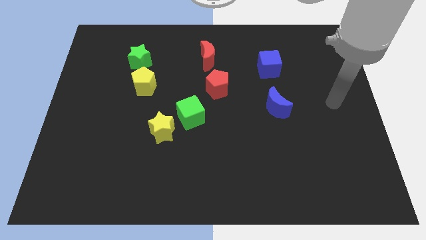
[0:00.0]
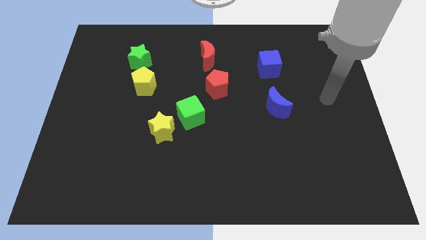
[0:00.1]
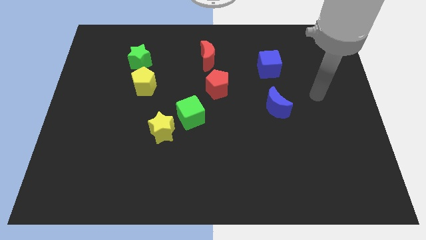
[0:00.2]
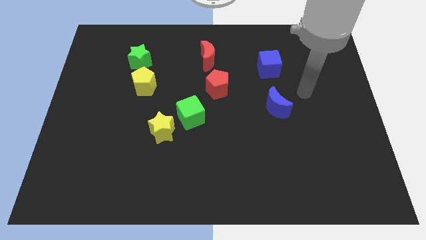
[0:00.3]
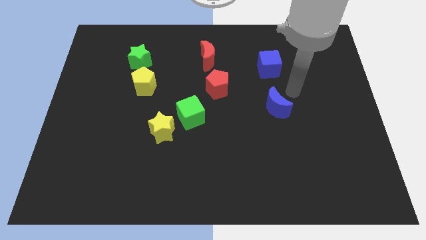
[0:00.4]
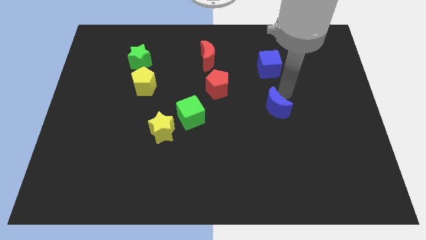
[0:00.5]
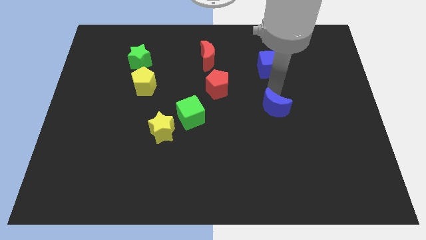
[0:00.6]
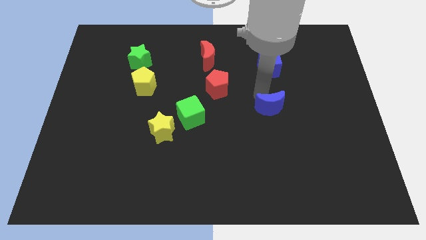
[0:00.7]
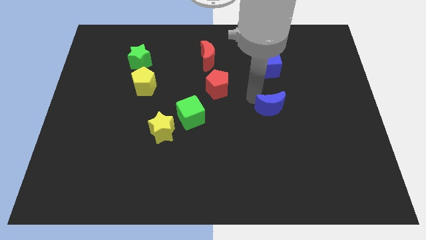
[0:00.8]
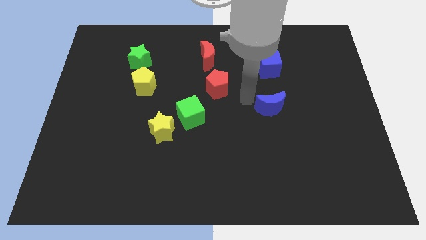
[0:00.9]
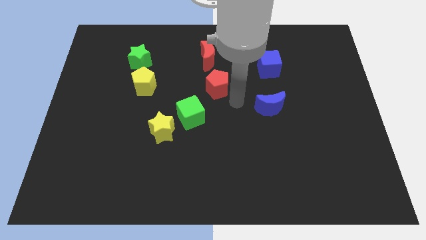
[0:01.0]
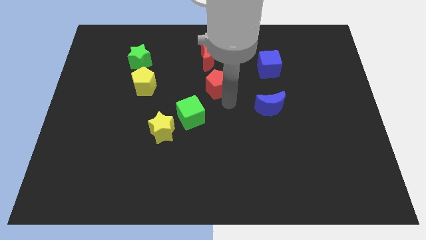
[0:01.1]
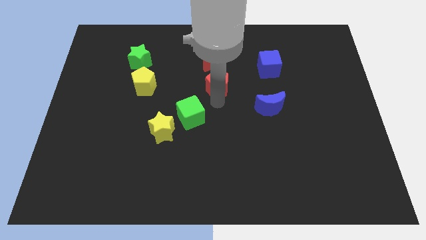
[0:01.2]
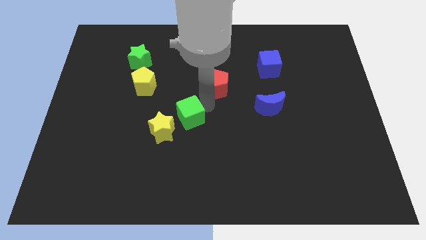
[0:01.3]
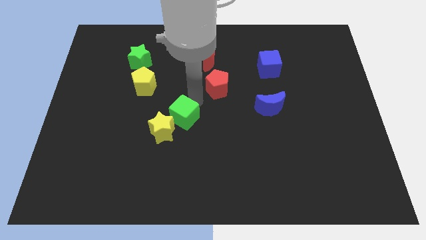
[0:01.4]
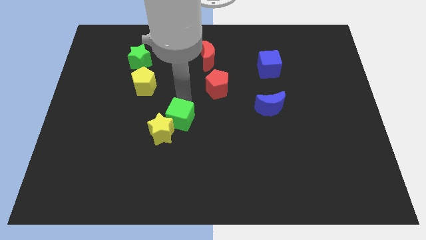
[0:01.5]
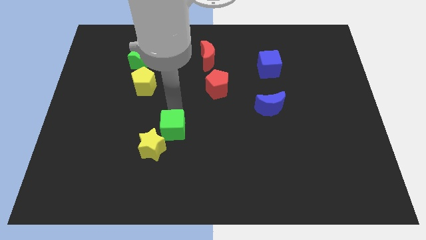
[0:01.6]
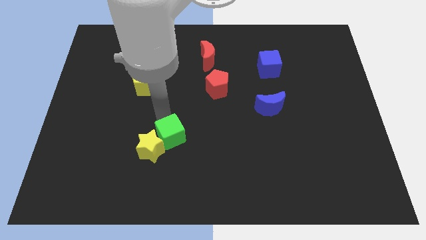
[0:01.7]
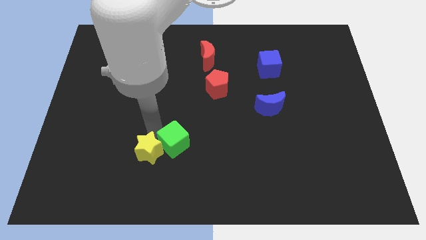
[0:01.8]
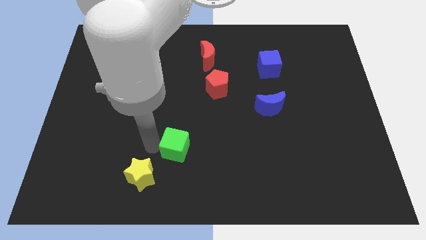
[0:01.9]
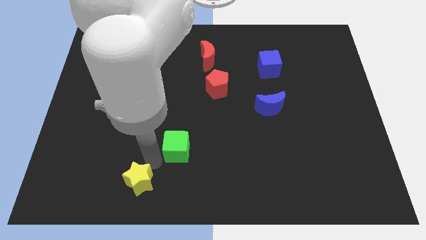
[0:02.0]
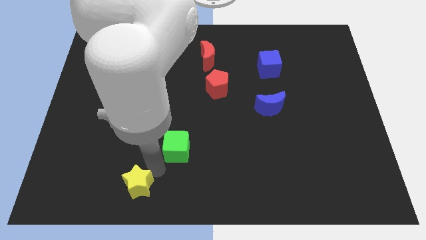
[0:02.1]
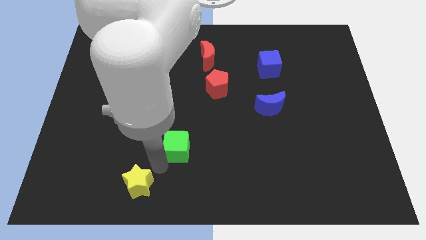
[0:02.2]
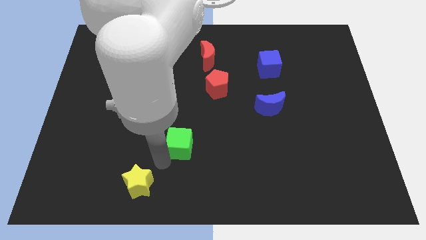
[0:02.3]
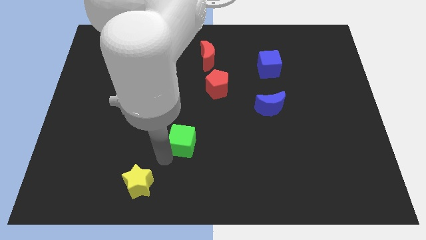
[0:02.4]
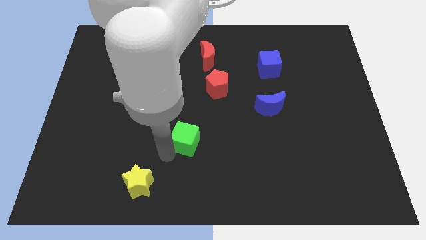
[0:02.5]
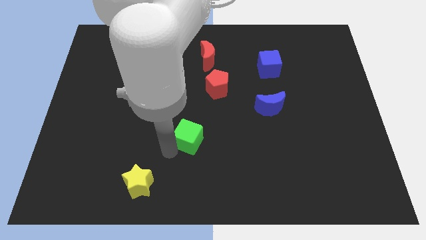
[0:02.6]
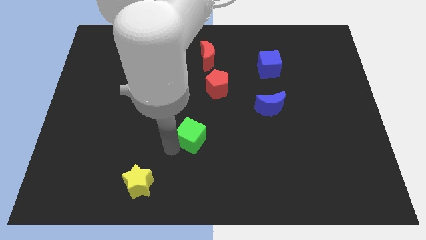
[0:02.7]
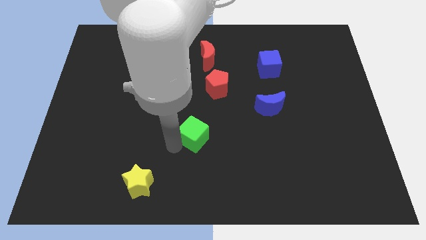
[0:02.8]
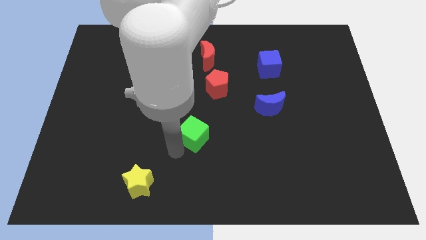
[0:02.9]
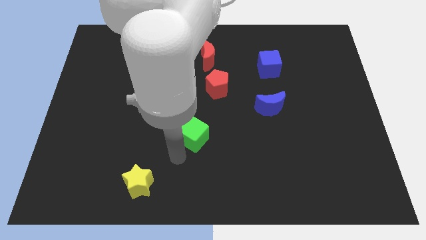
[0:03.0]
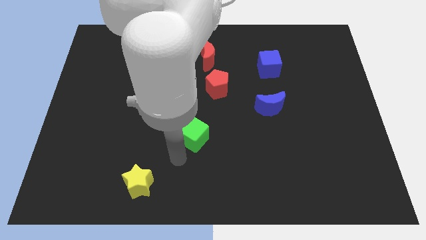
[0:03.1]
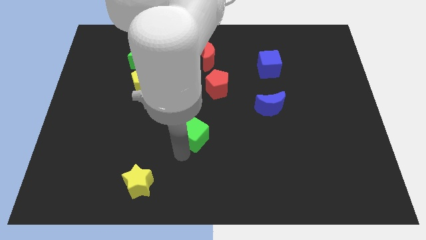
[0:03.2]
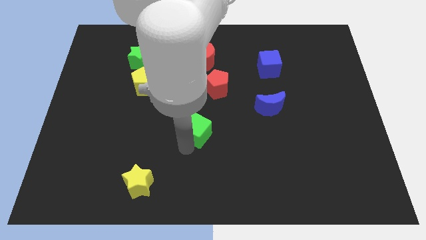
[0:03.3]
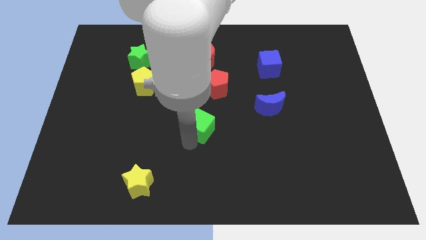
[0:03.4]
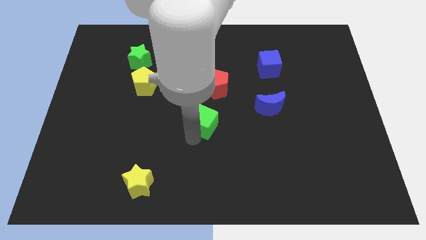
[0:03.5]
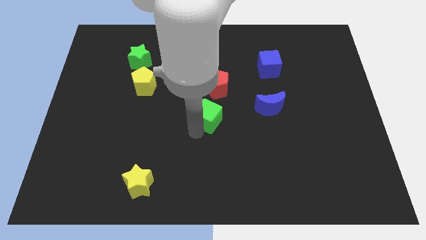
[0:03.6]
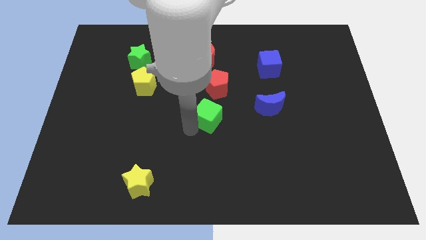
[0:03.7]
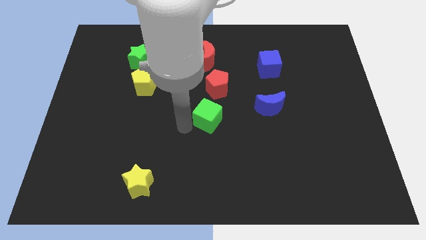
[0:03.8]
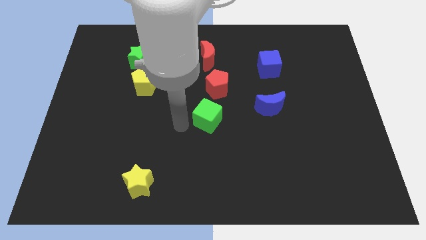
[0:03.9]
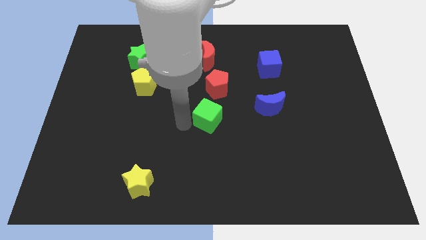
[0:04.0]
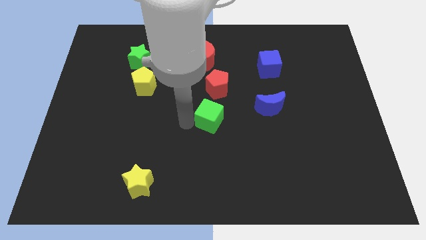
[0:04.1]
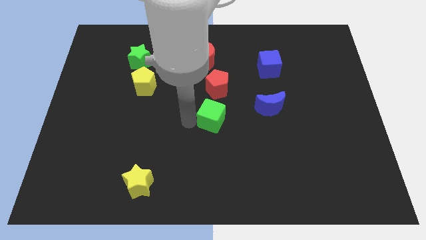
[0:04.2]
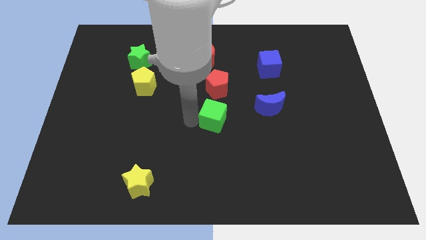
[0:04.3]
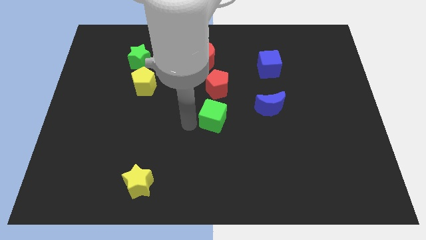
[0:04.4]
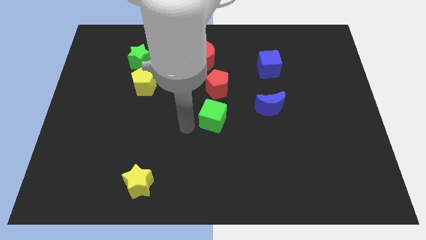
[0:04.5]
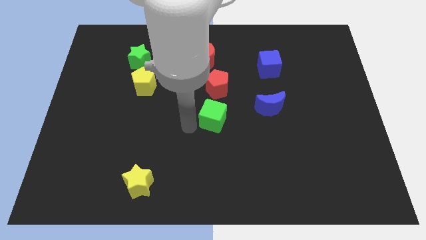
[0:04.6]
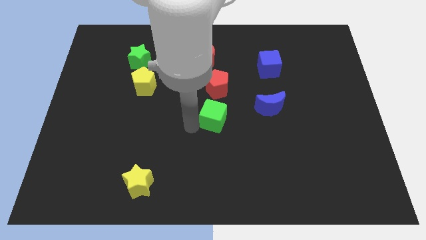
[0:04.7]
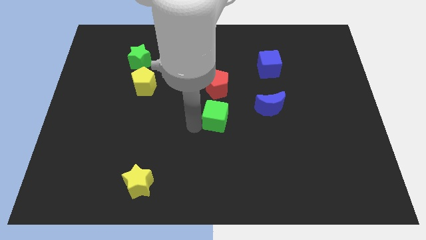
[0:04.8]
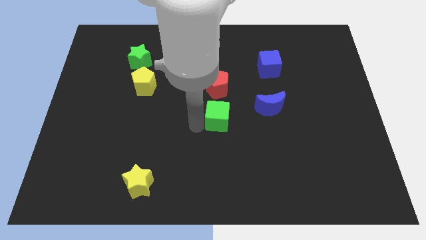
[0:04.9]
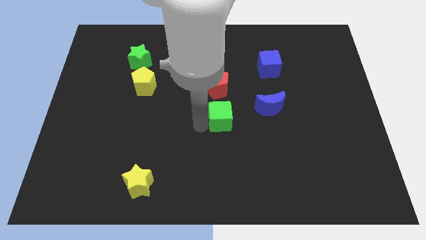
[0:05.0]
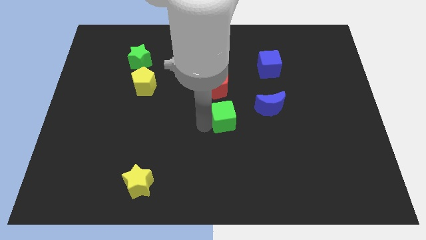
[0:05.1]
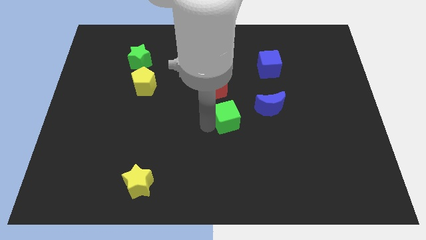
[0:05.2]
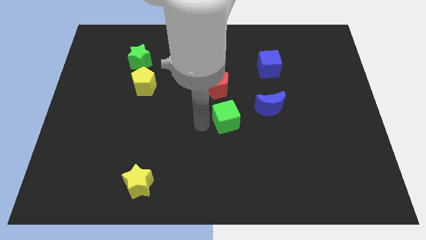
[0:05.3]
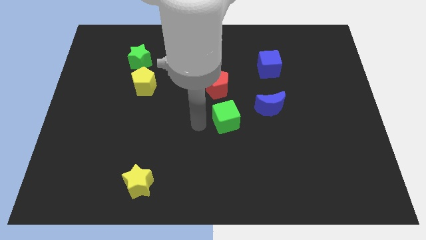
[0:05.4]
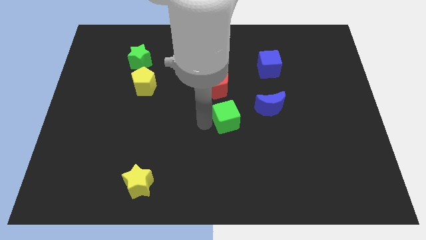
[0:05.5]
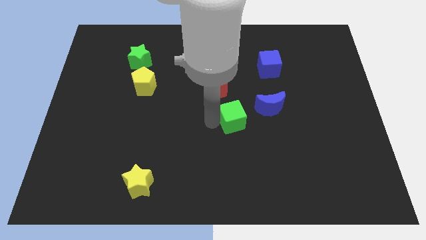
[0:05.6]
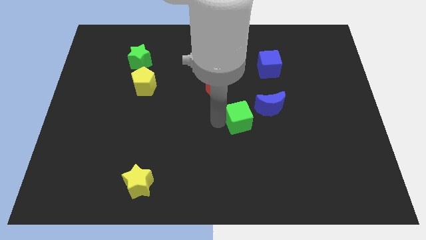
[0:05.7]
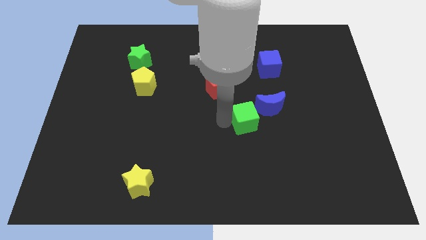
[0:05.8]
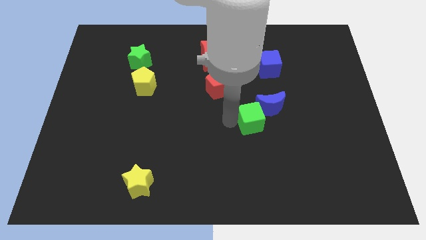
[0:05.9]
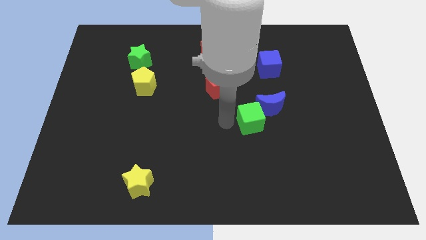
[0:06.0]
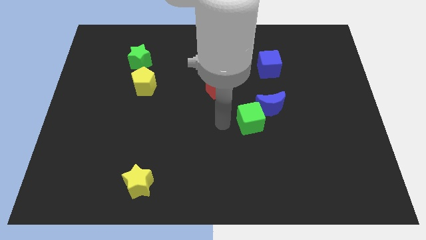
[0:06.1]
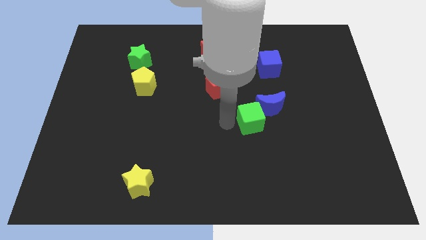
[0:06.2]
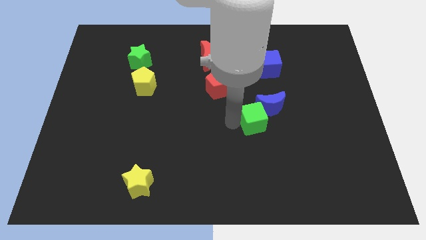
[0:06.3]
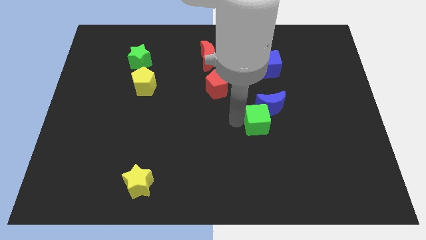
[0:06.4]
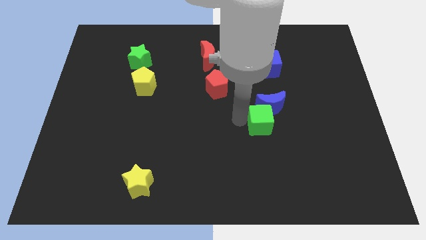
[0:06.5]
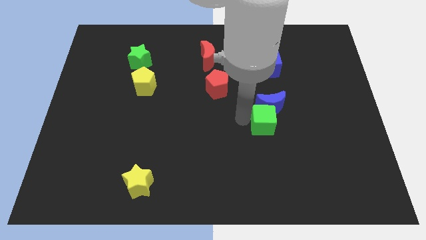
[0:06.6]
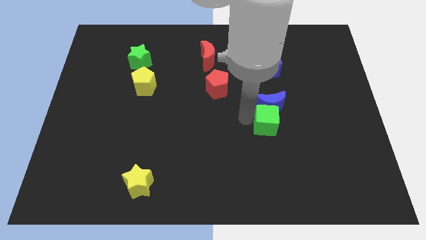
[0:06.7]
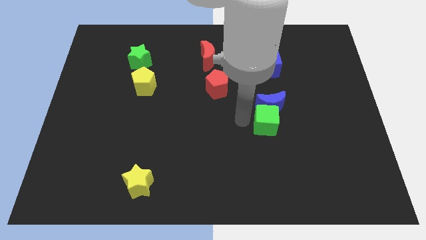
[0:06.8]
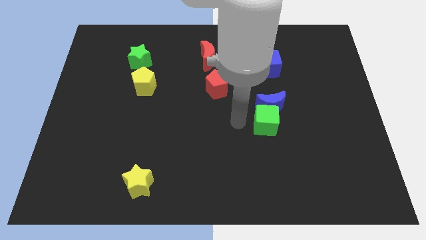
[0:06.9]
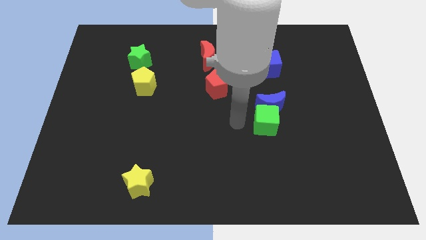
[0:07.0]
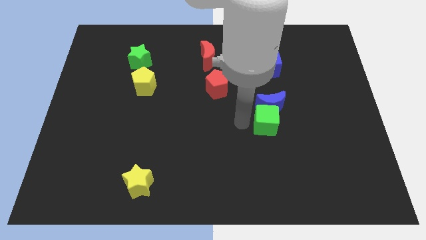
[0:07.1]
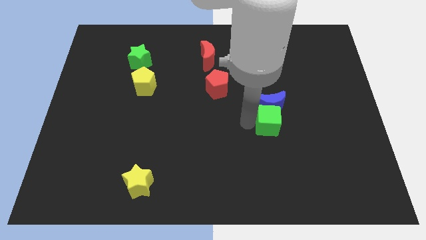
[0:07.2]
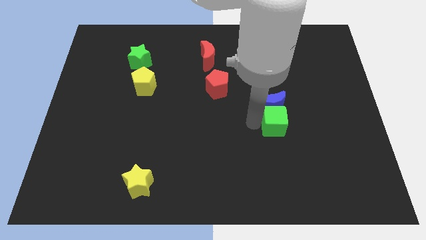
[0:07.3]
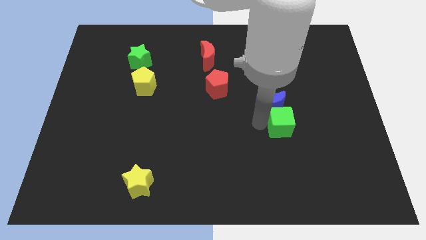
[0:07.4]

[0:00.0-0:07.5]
move the green cube to the right

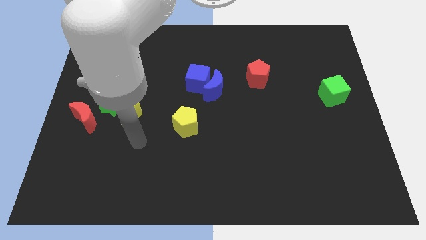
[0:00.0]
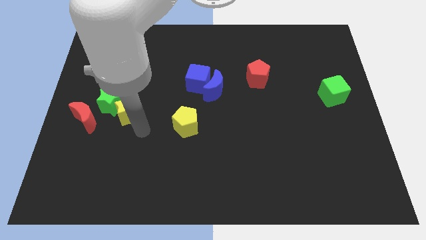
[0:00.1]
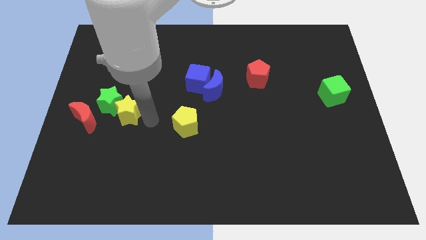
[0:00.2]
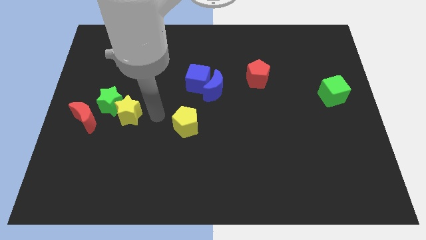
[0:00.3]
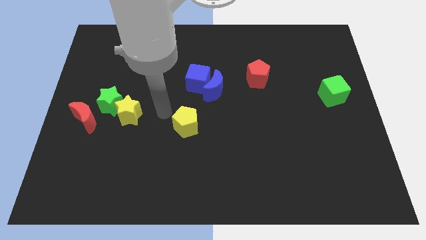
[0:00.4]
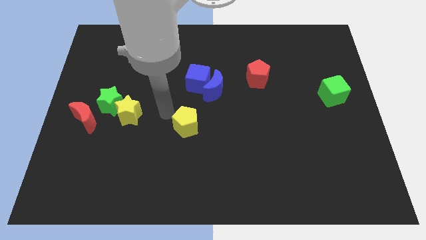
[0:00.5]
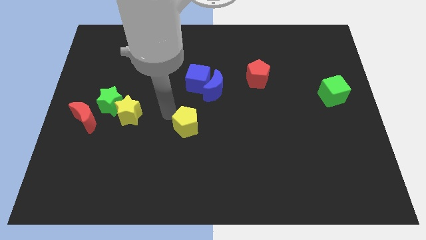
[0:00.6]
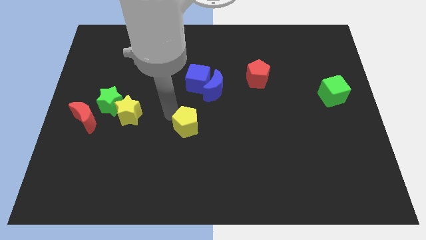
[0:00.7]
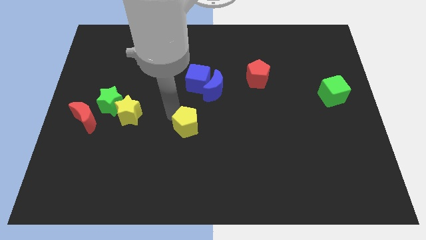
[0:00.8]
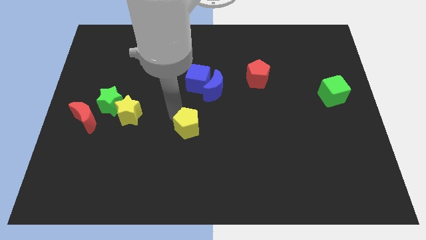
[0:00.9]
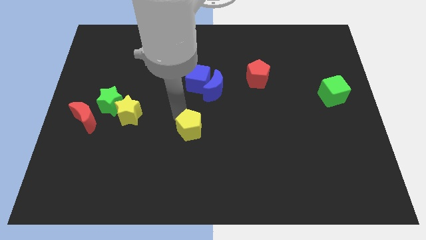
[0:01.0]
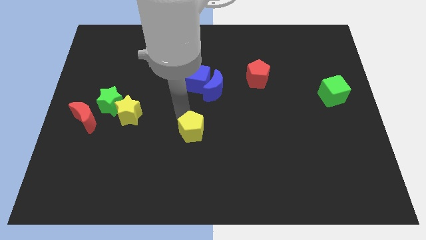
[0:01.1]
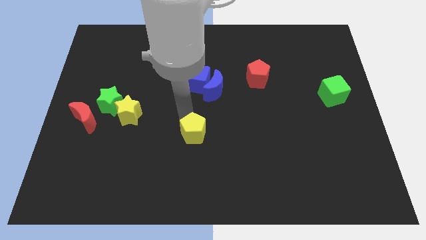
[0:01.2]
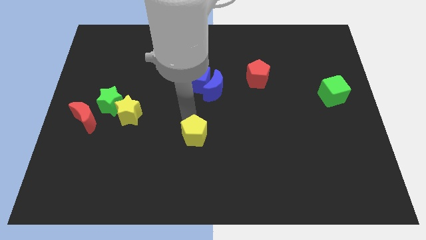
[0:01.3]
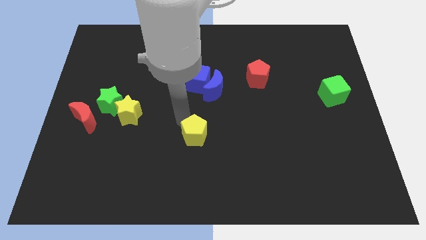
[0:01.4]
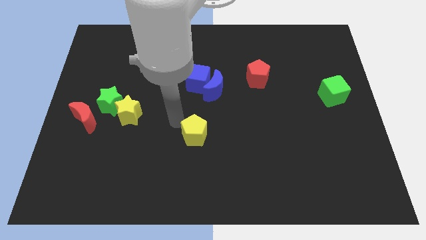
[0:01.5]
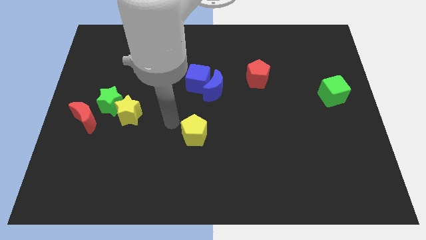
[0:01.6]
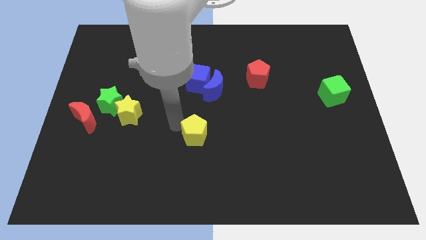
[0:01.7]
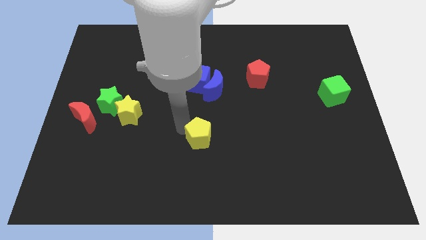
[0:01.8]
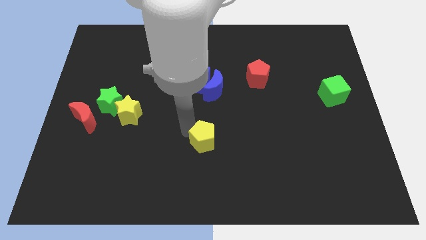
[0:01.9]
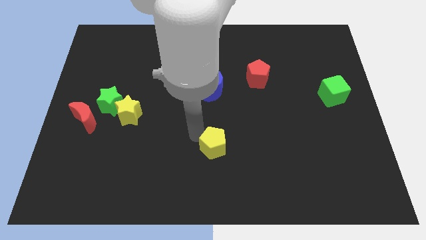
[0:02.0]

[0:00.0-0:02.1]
move the yellow pentagon a little diagonally downwards and to the right
